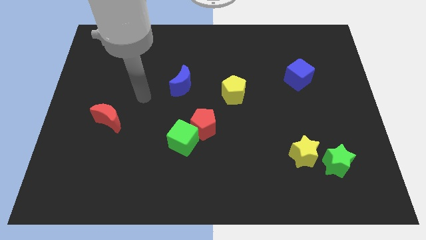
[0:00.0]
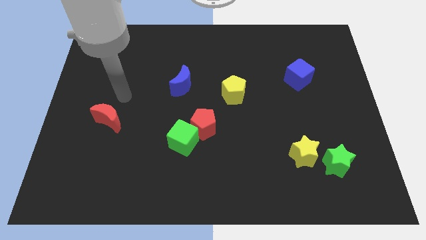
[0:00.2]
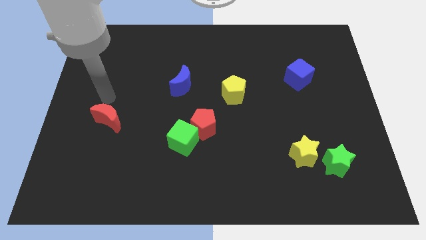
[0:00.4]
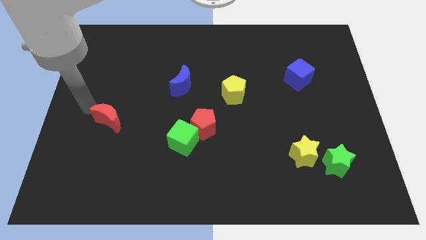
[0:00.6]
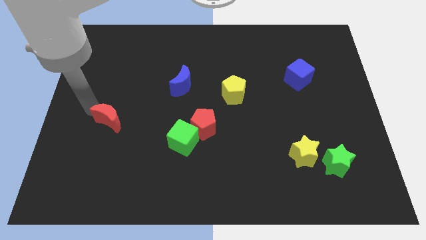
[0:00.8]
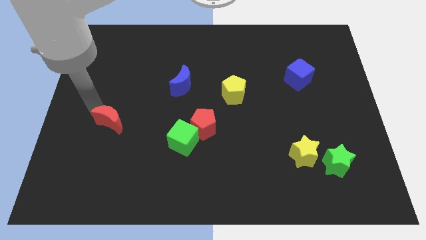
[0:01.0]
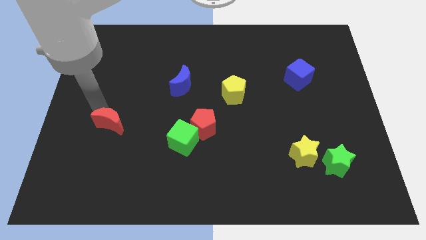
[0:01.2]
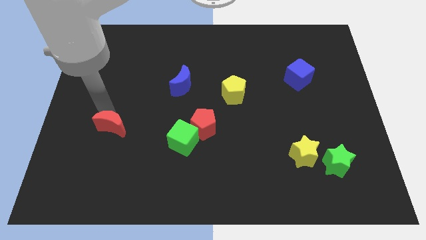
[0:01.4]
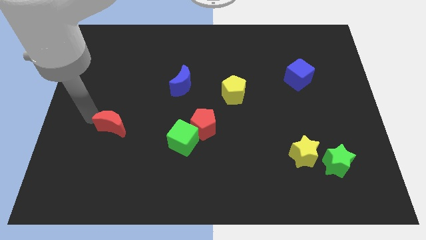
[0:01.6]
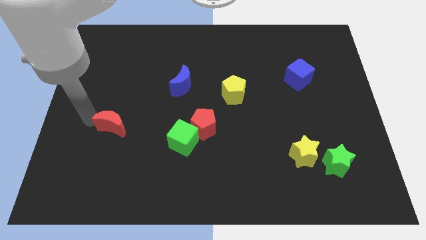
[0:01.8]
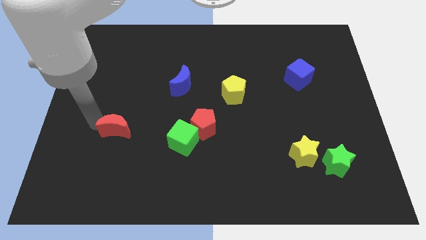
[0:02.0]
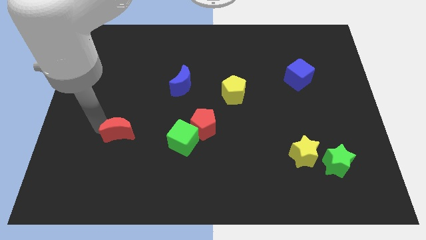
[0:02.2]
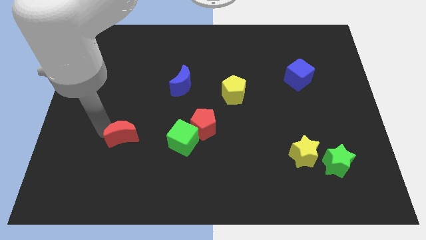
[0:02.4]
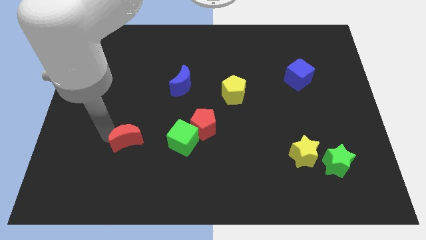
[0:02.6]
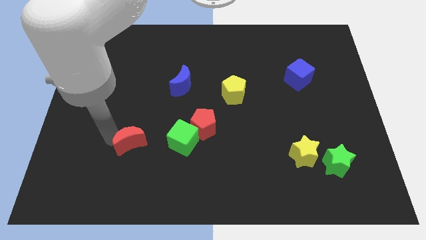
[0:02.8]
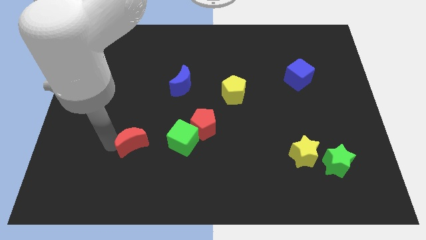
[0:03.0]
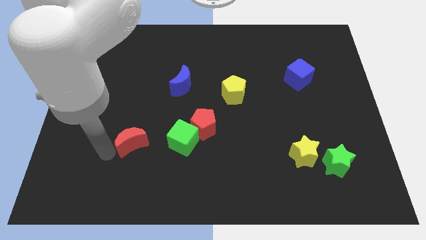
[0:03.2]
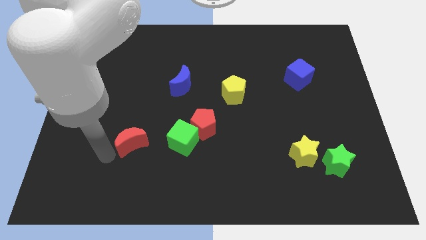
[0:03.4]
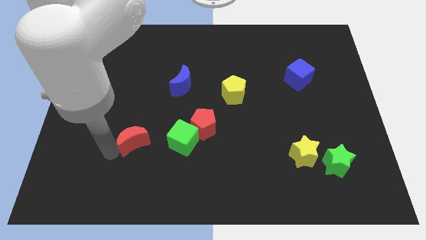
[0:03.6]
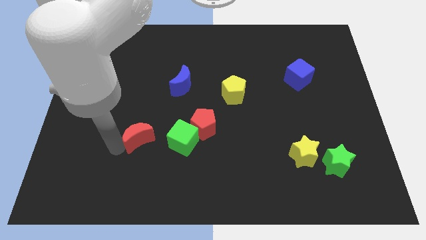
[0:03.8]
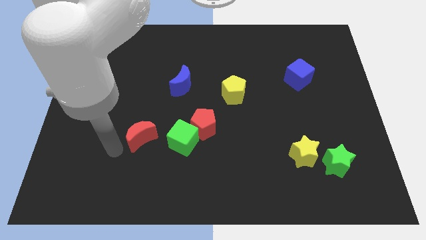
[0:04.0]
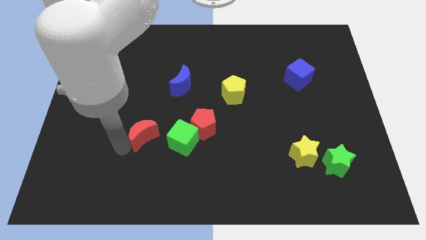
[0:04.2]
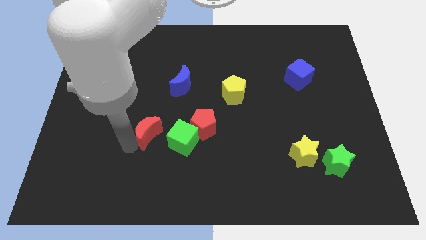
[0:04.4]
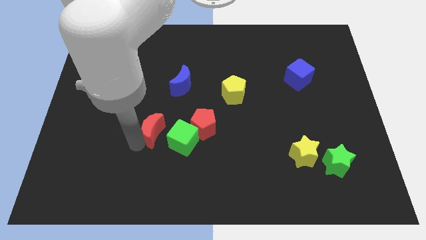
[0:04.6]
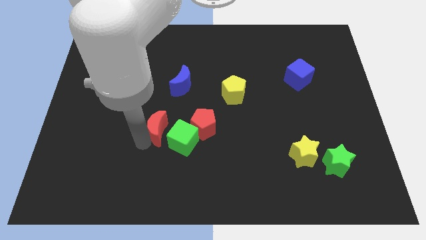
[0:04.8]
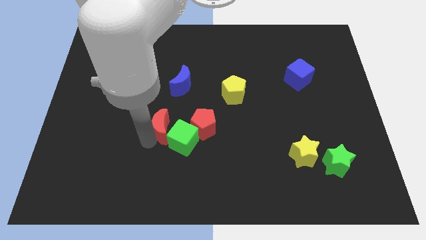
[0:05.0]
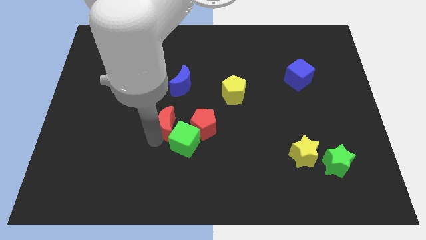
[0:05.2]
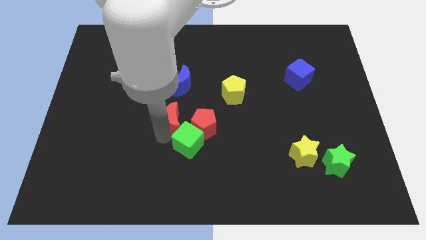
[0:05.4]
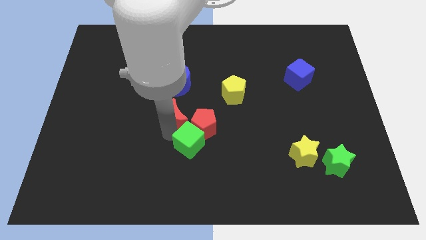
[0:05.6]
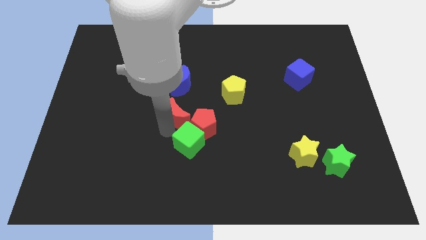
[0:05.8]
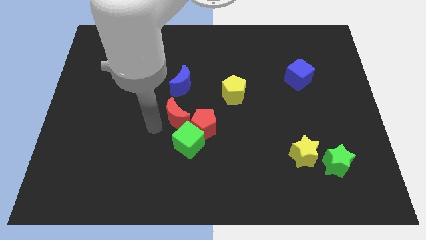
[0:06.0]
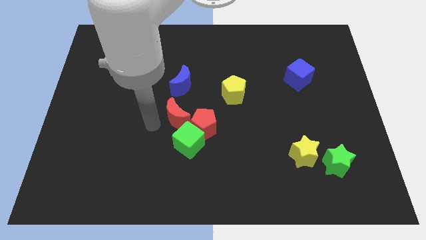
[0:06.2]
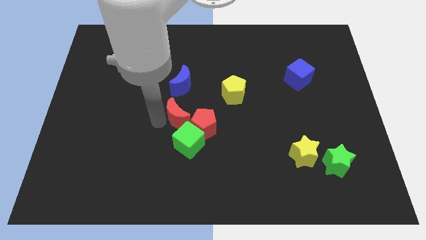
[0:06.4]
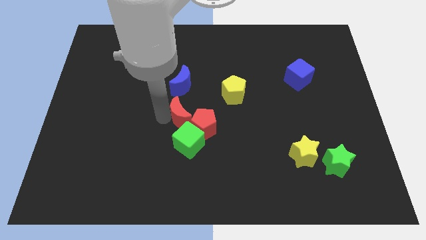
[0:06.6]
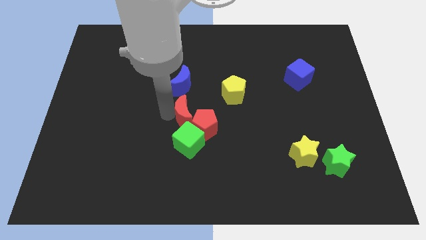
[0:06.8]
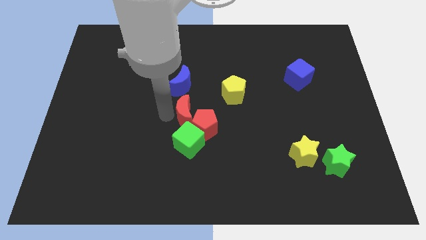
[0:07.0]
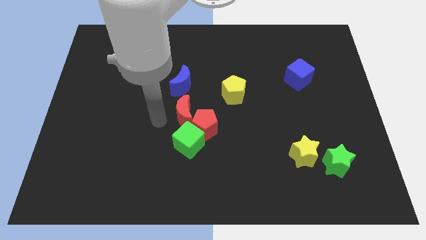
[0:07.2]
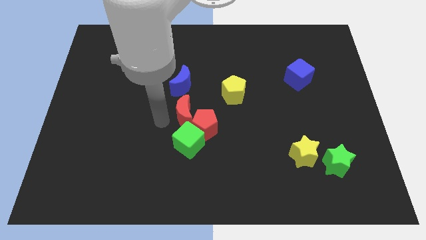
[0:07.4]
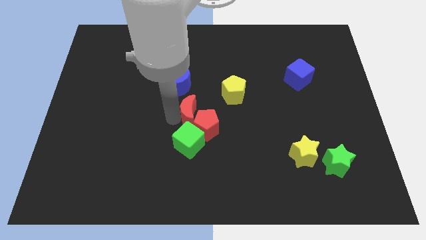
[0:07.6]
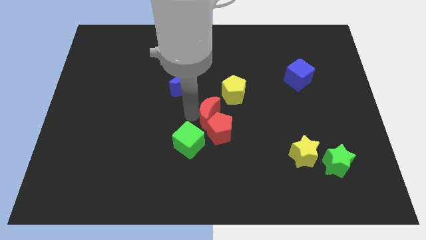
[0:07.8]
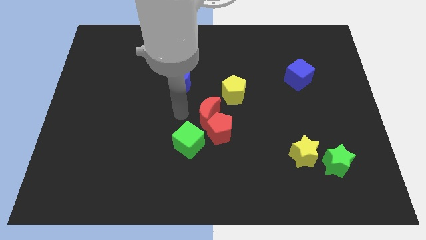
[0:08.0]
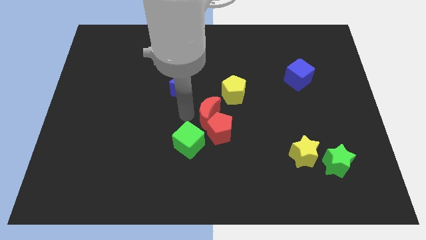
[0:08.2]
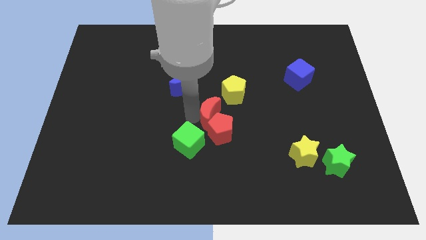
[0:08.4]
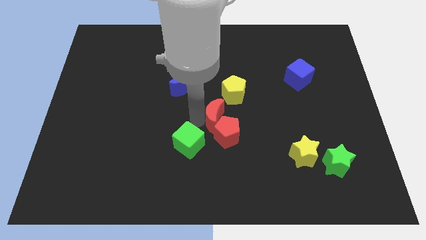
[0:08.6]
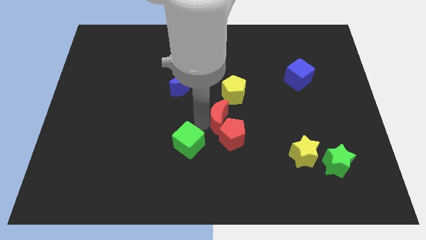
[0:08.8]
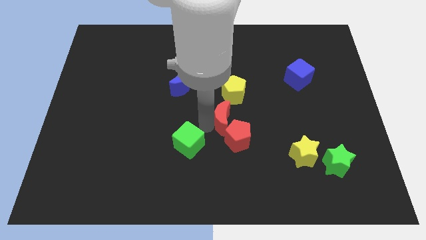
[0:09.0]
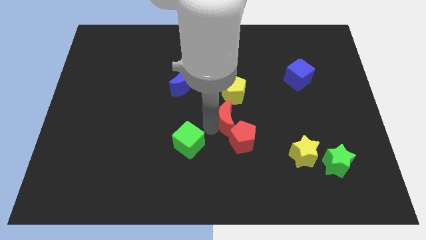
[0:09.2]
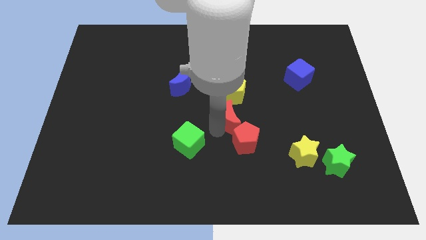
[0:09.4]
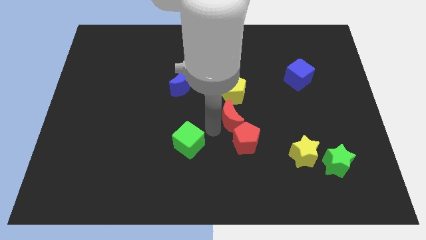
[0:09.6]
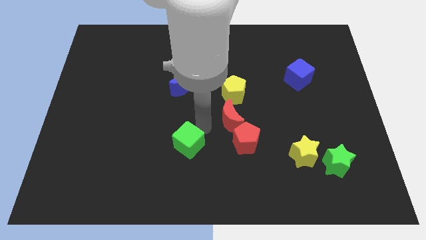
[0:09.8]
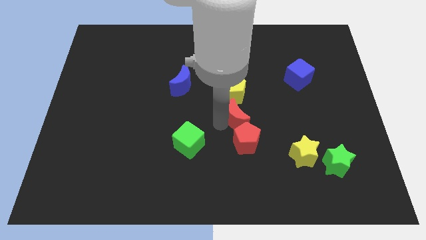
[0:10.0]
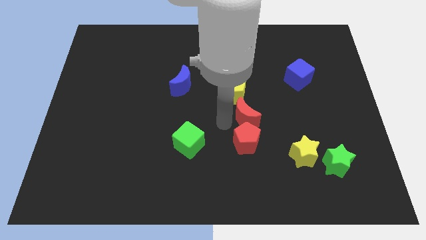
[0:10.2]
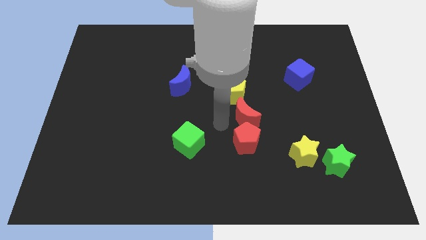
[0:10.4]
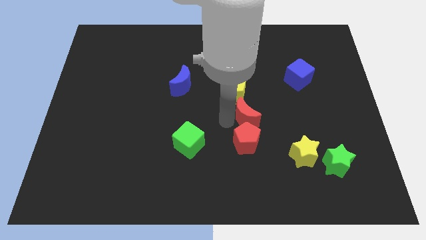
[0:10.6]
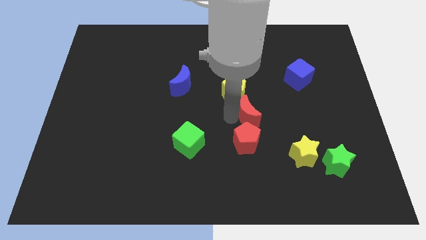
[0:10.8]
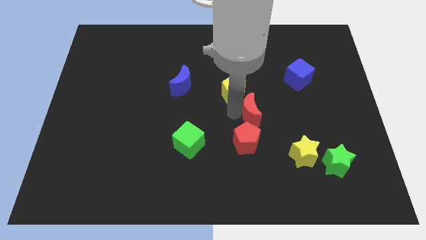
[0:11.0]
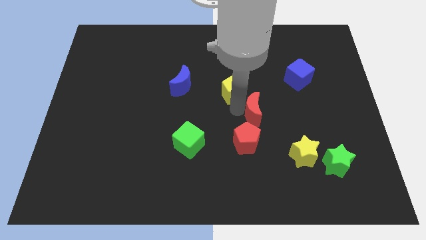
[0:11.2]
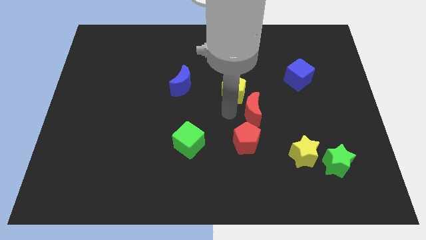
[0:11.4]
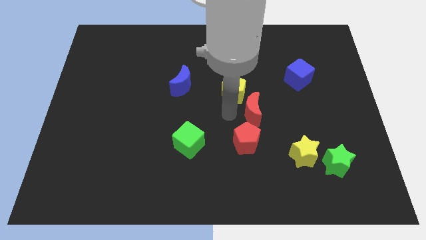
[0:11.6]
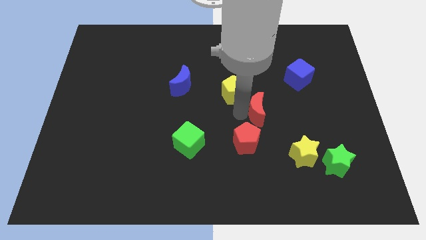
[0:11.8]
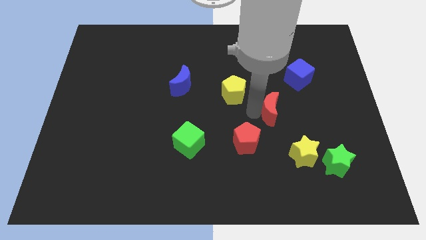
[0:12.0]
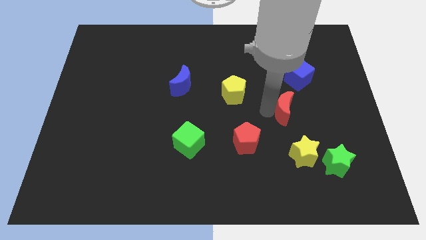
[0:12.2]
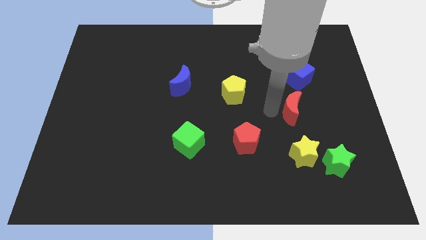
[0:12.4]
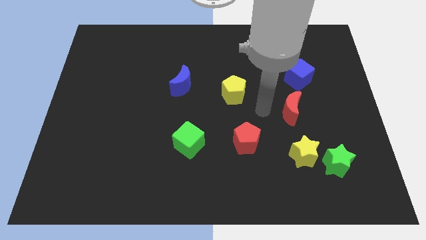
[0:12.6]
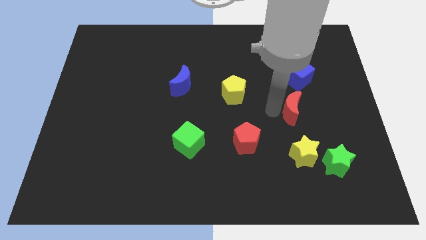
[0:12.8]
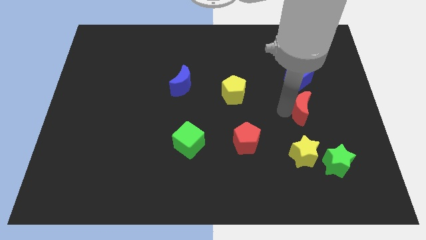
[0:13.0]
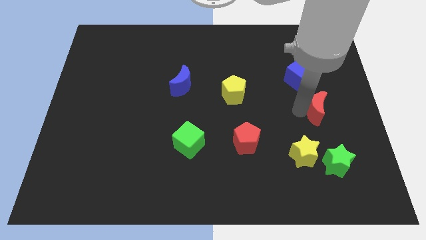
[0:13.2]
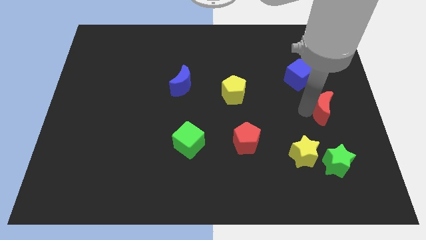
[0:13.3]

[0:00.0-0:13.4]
put the red moon to the center right
